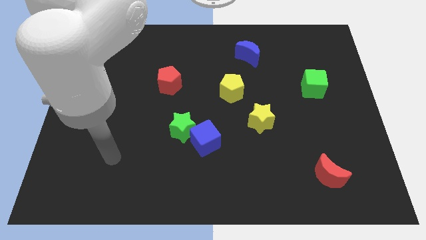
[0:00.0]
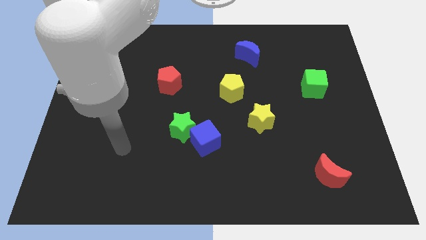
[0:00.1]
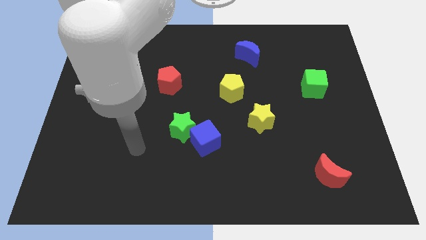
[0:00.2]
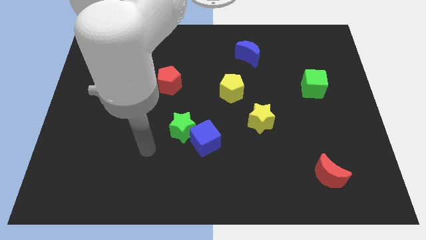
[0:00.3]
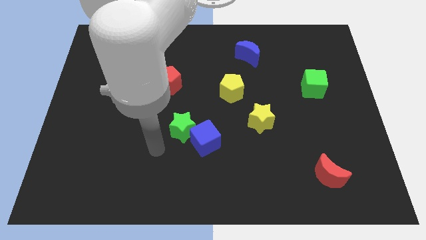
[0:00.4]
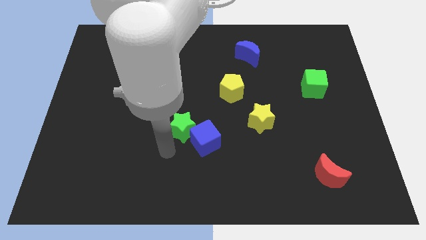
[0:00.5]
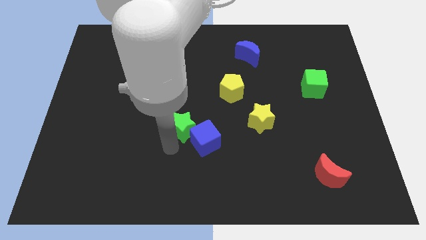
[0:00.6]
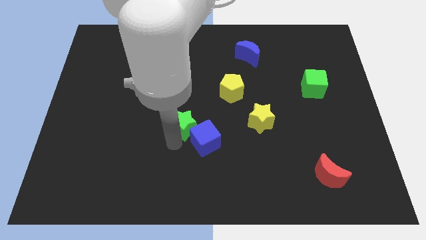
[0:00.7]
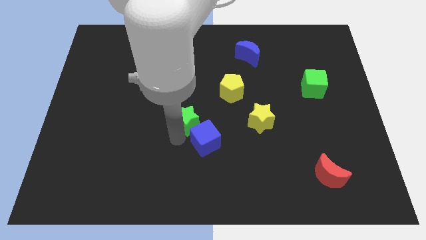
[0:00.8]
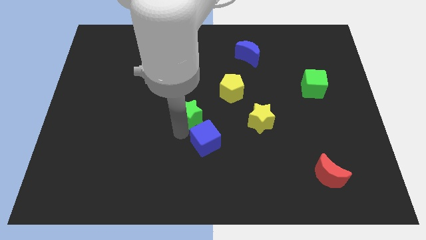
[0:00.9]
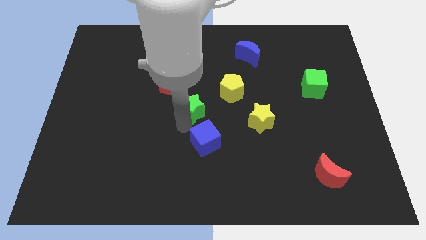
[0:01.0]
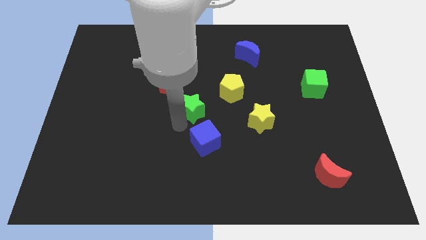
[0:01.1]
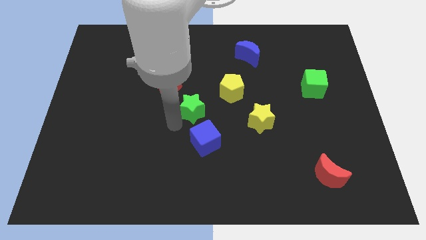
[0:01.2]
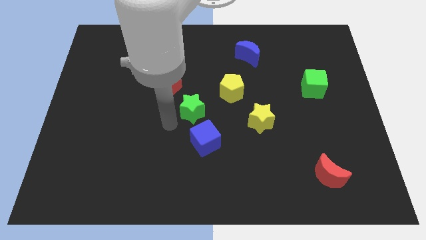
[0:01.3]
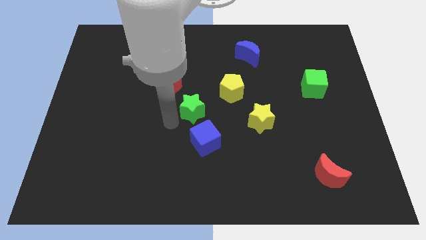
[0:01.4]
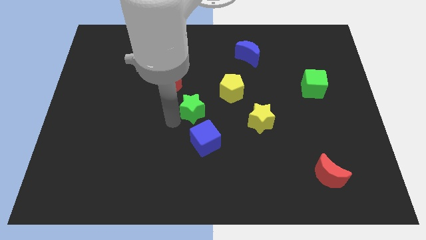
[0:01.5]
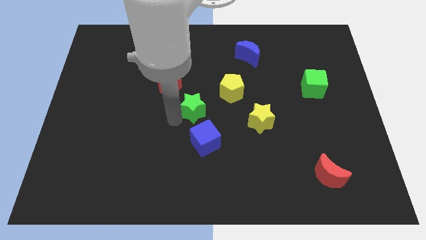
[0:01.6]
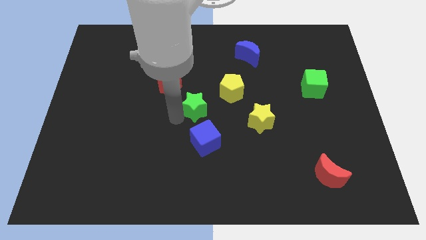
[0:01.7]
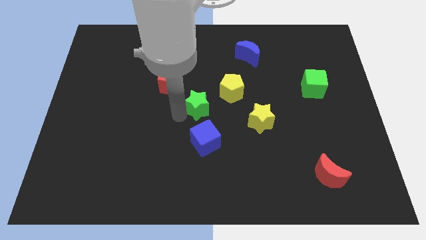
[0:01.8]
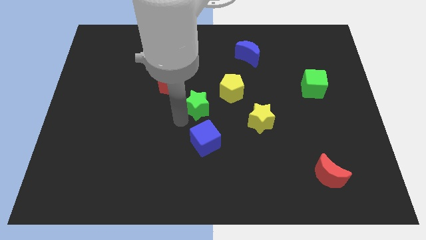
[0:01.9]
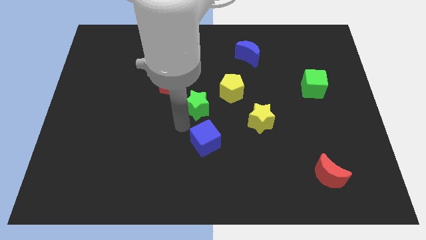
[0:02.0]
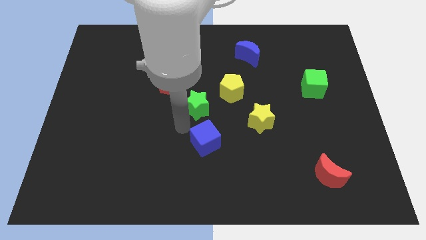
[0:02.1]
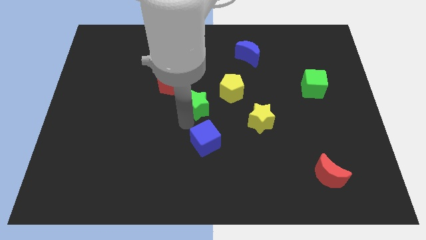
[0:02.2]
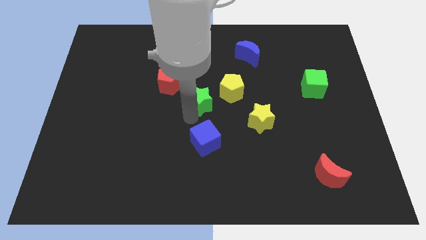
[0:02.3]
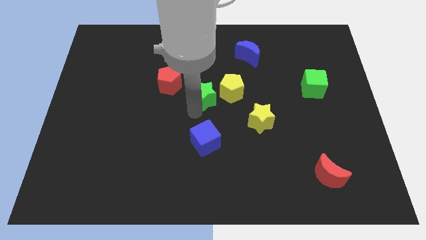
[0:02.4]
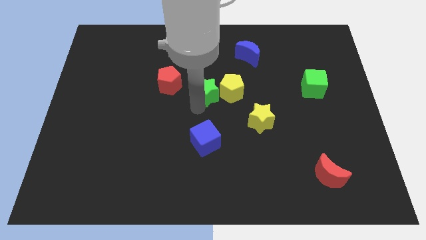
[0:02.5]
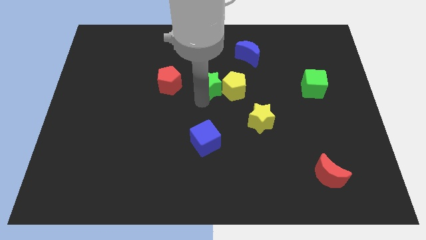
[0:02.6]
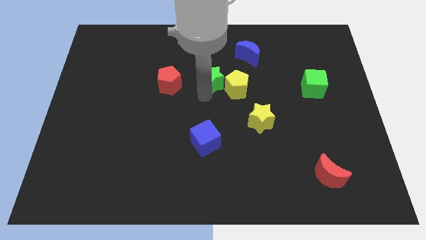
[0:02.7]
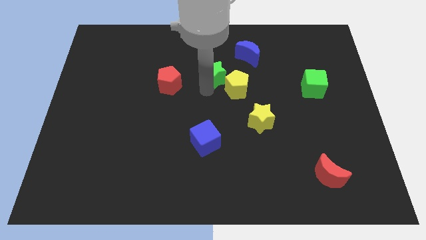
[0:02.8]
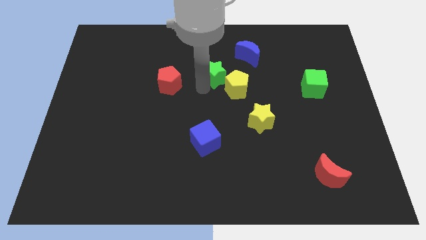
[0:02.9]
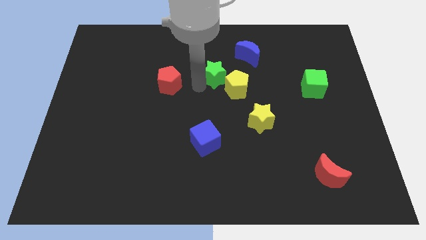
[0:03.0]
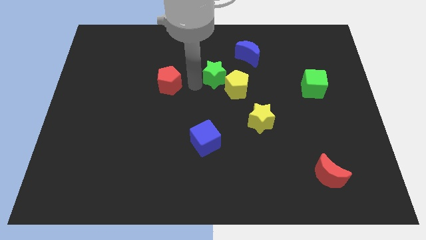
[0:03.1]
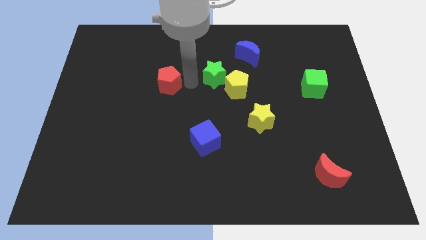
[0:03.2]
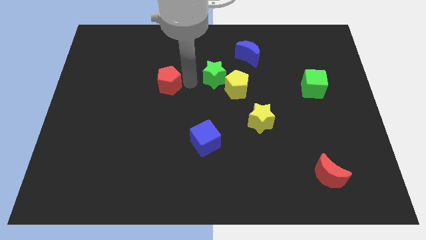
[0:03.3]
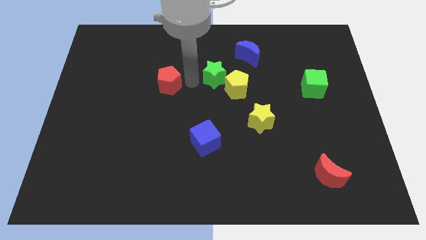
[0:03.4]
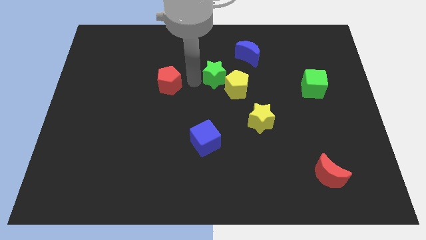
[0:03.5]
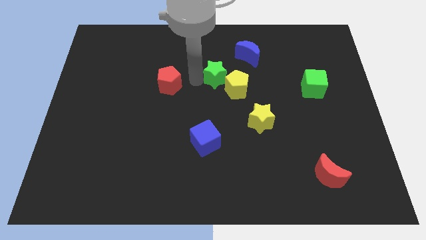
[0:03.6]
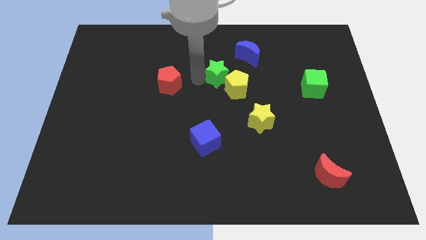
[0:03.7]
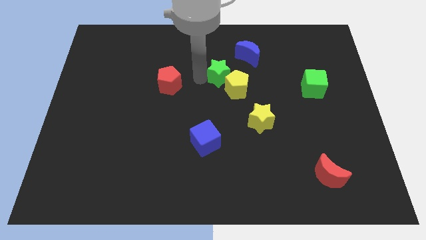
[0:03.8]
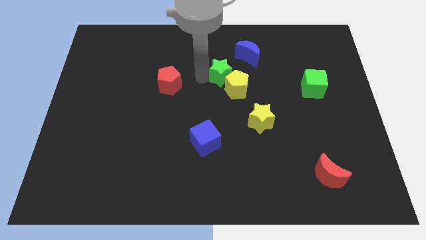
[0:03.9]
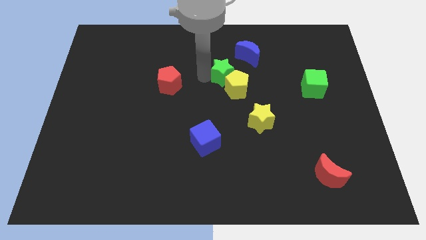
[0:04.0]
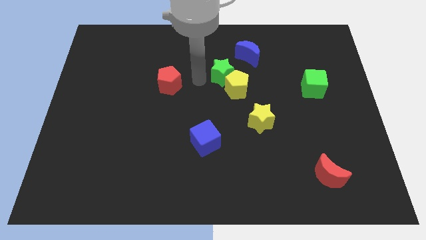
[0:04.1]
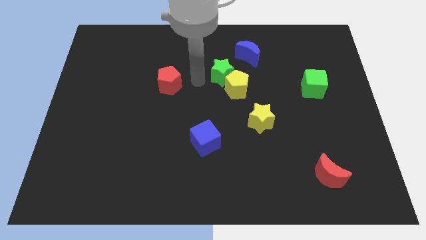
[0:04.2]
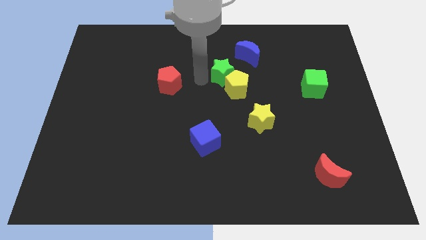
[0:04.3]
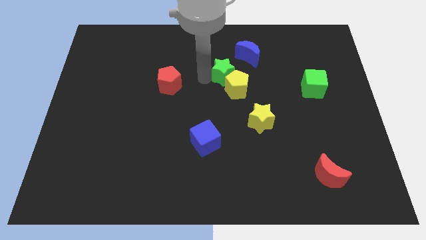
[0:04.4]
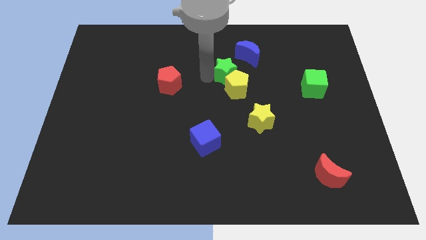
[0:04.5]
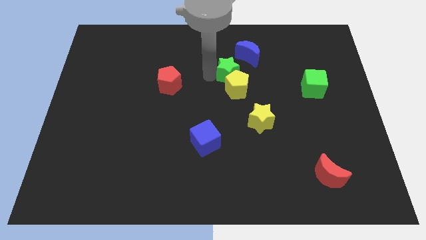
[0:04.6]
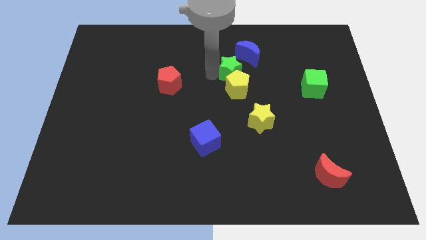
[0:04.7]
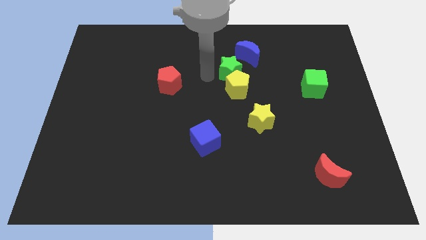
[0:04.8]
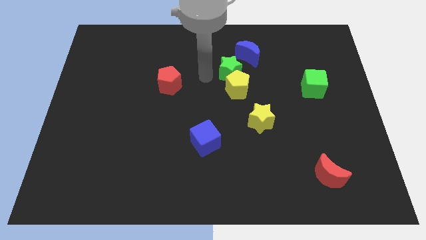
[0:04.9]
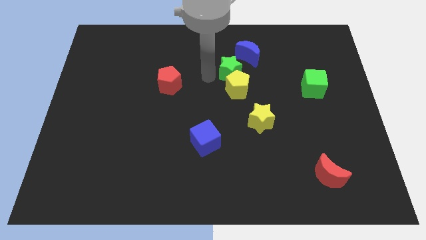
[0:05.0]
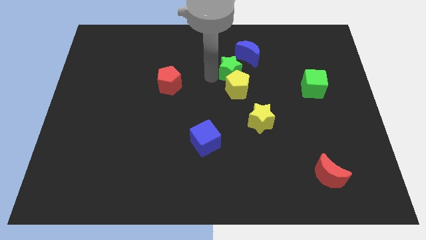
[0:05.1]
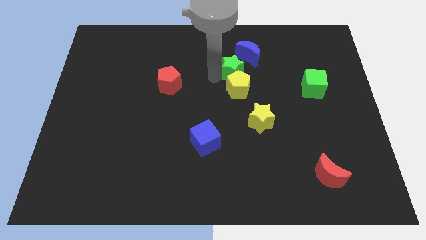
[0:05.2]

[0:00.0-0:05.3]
push the green star up and to the right
